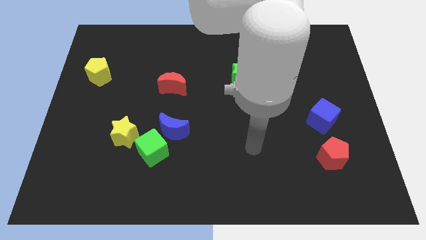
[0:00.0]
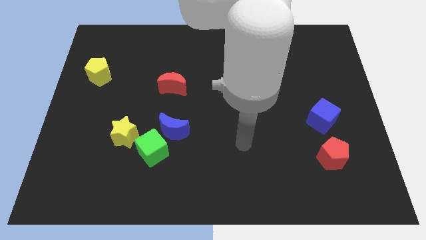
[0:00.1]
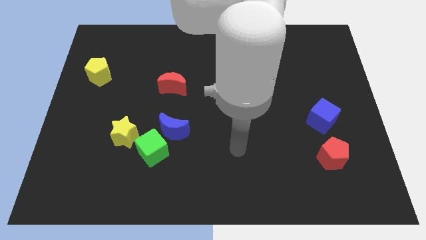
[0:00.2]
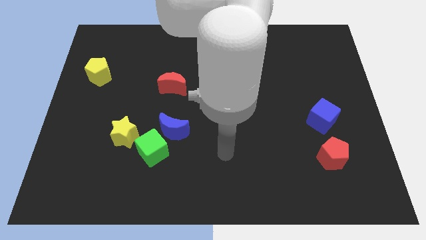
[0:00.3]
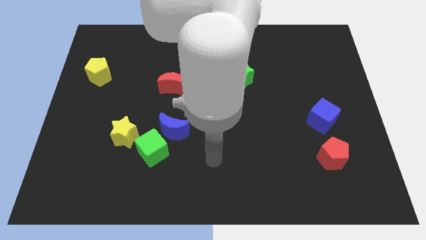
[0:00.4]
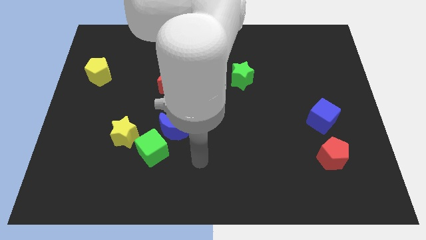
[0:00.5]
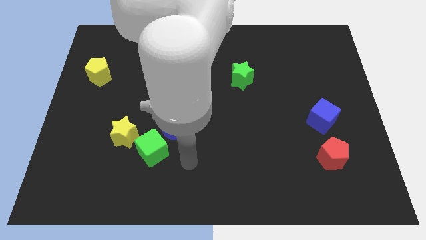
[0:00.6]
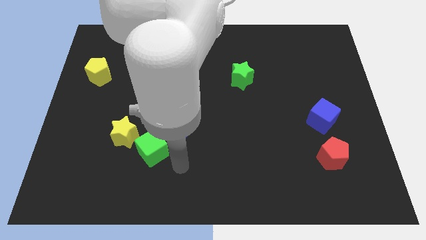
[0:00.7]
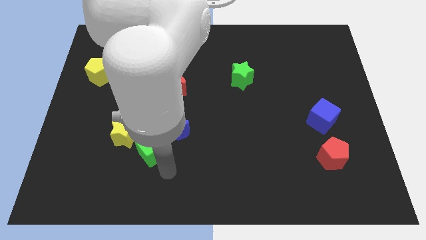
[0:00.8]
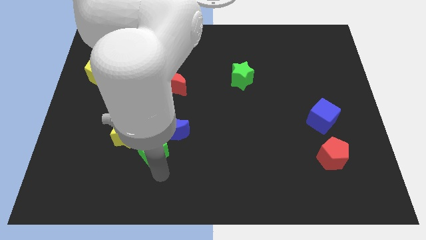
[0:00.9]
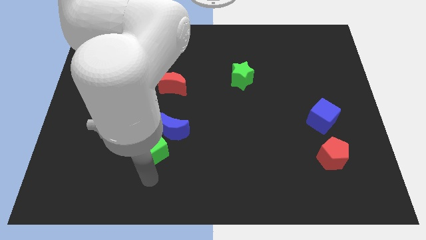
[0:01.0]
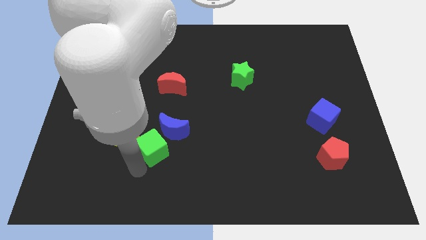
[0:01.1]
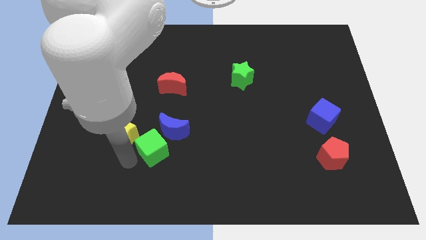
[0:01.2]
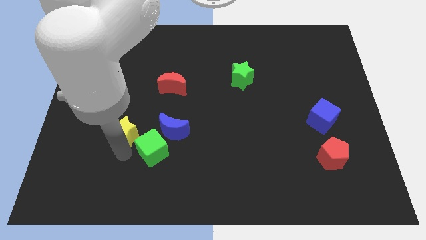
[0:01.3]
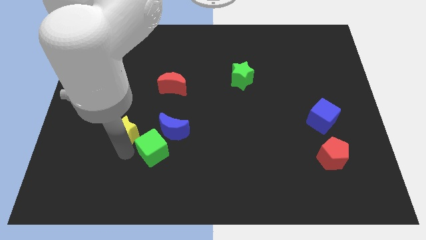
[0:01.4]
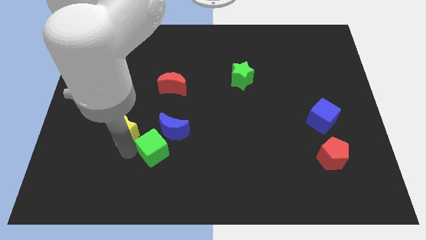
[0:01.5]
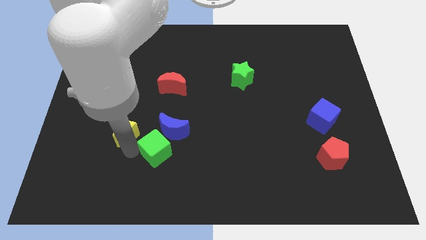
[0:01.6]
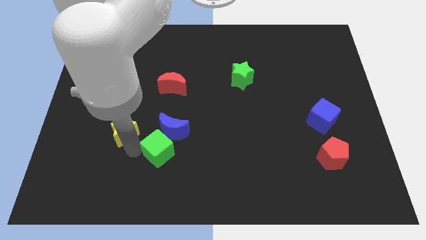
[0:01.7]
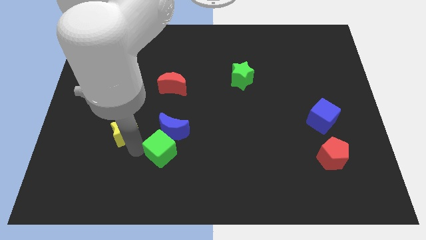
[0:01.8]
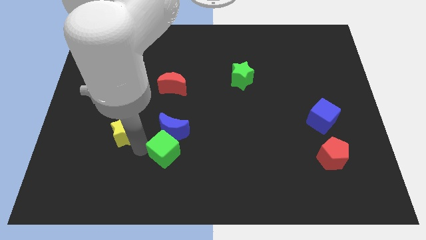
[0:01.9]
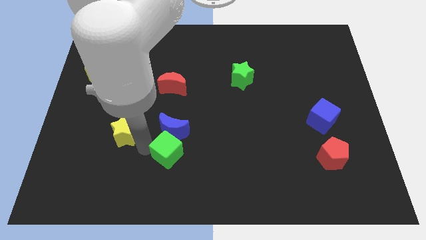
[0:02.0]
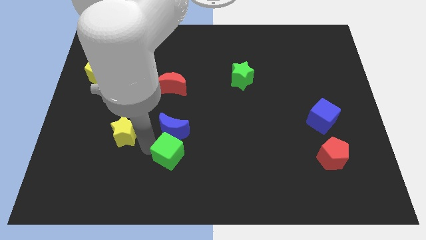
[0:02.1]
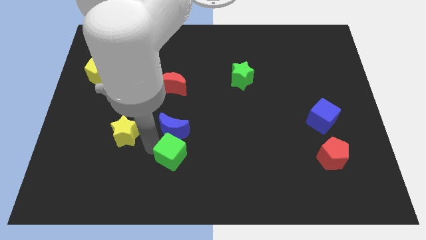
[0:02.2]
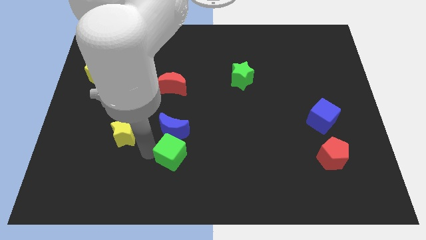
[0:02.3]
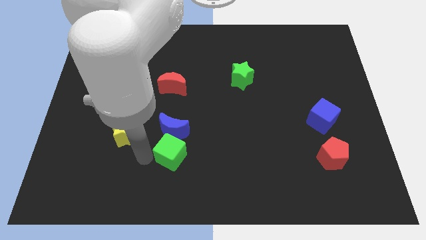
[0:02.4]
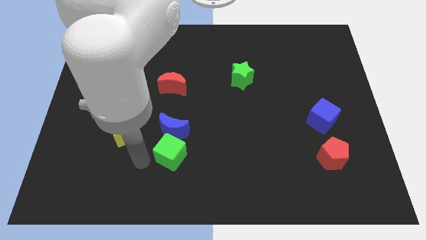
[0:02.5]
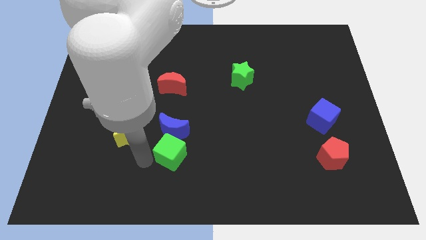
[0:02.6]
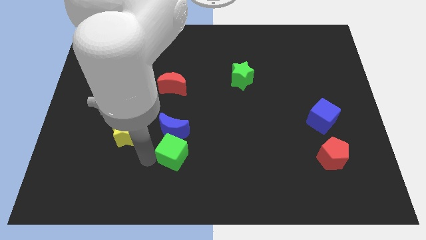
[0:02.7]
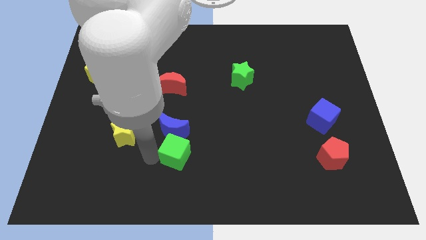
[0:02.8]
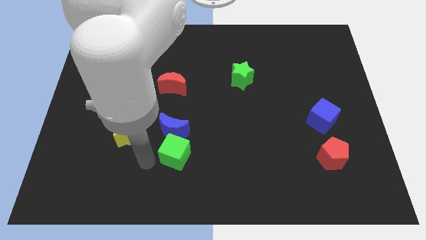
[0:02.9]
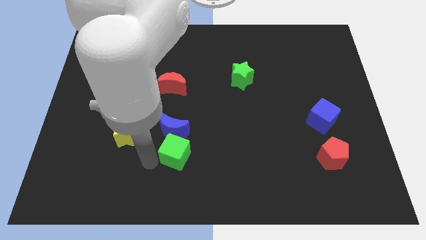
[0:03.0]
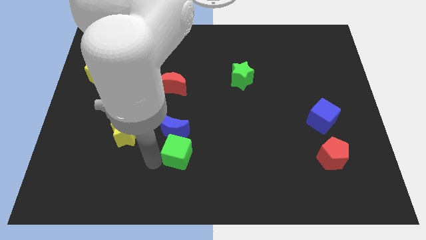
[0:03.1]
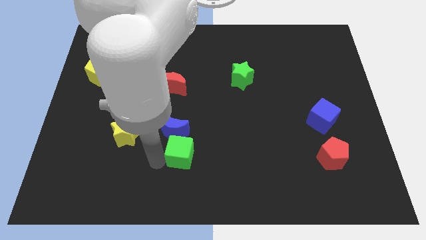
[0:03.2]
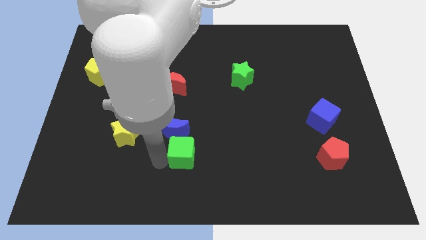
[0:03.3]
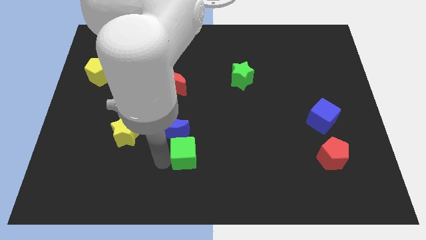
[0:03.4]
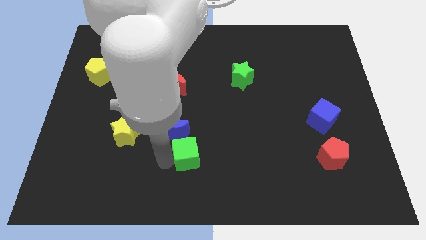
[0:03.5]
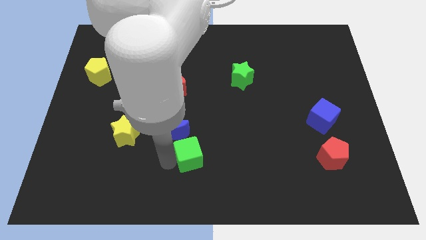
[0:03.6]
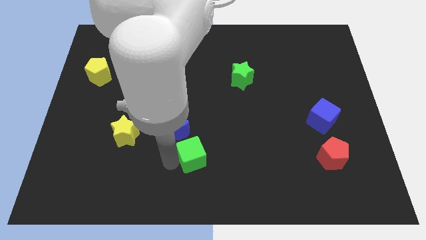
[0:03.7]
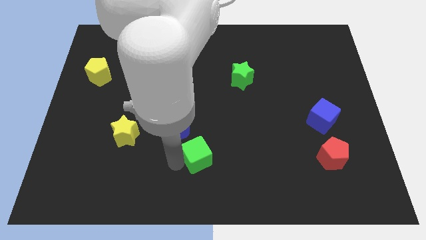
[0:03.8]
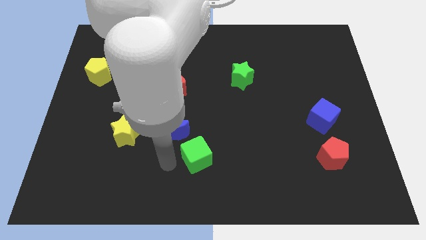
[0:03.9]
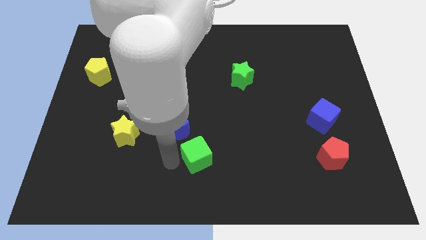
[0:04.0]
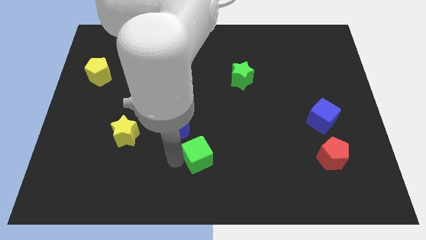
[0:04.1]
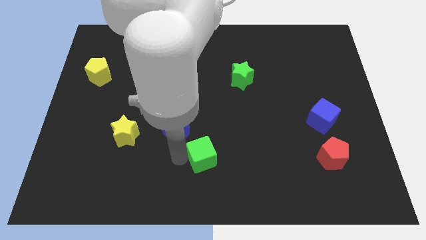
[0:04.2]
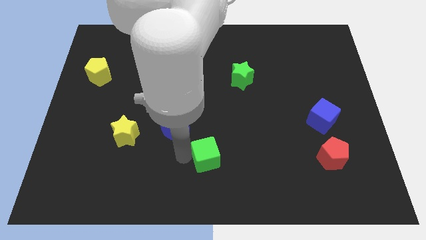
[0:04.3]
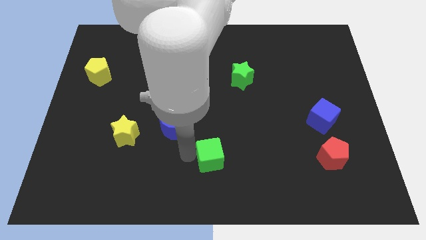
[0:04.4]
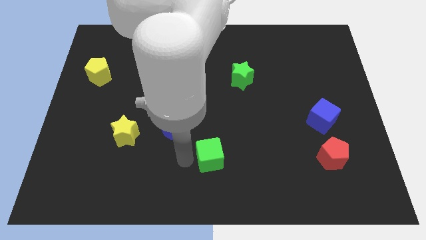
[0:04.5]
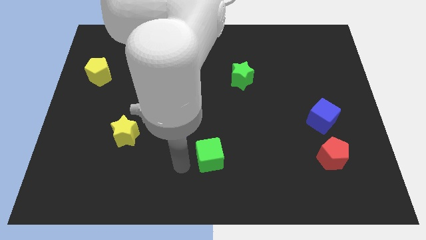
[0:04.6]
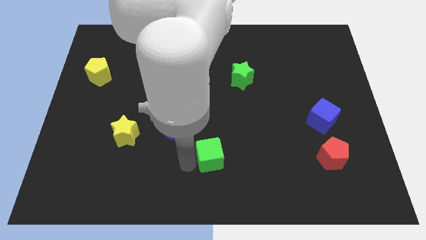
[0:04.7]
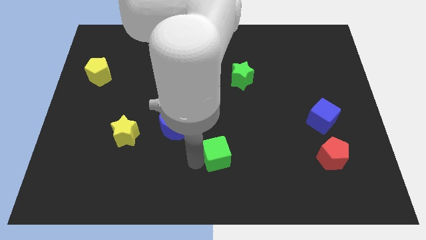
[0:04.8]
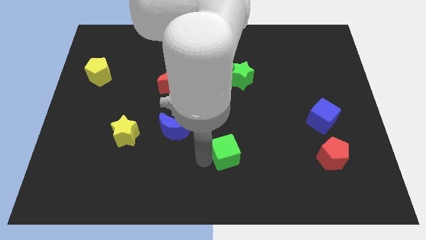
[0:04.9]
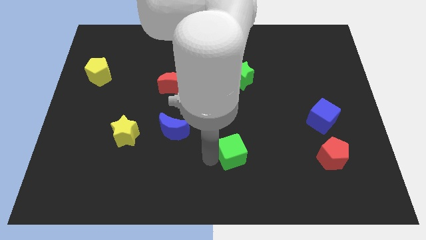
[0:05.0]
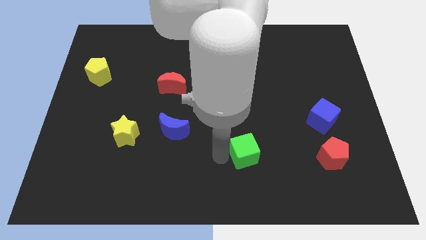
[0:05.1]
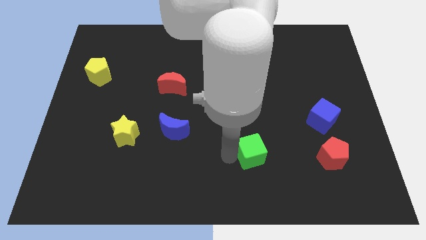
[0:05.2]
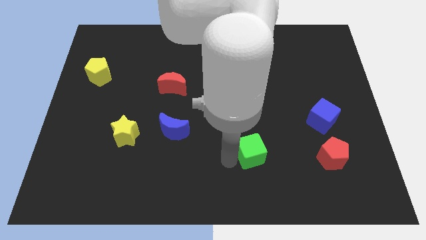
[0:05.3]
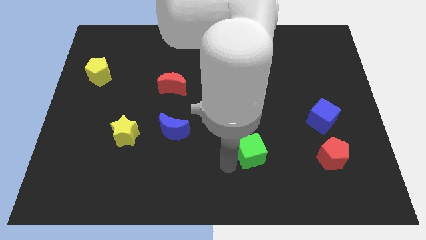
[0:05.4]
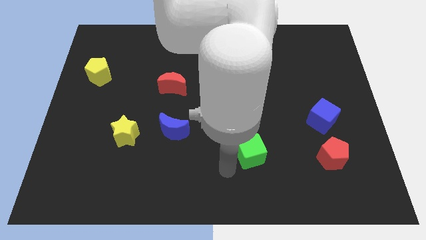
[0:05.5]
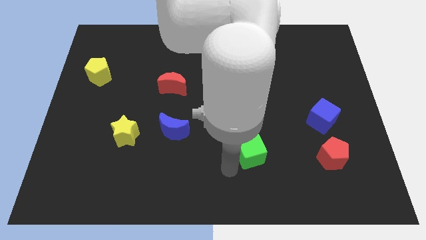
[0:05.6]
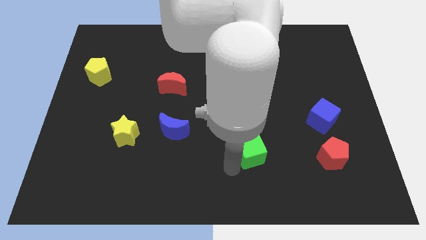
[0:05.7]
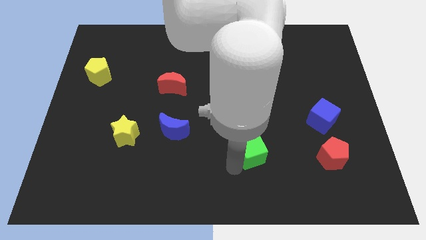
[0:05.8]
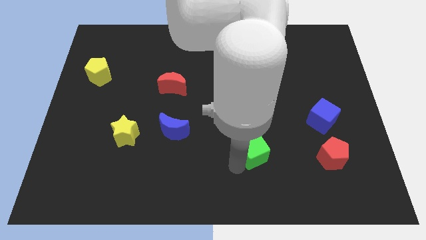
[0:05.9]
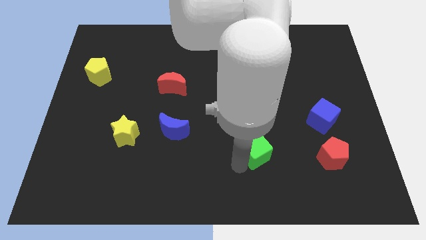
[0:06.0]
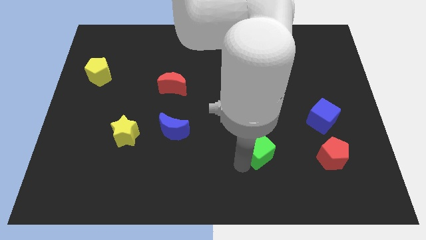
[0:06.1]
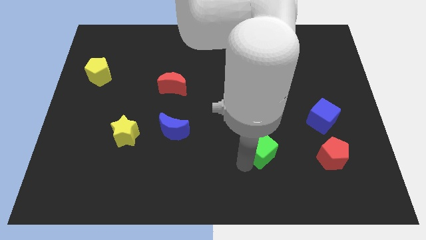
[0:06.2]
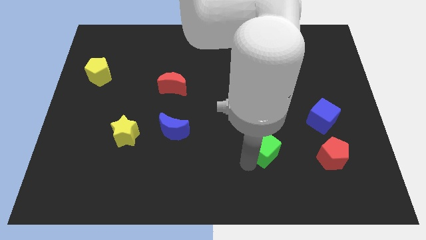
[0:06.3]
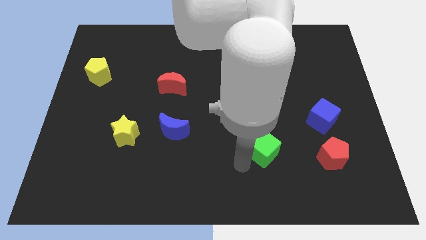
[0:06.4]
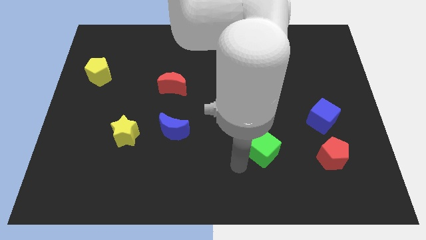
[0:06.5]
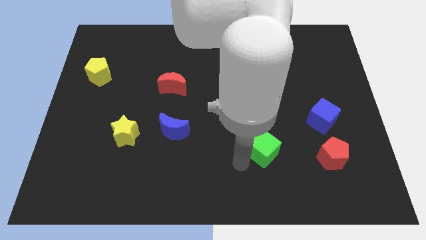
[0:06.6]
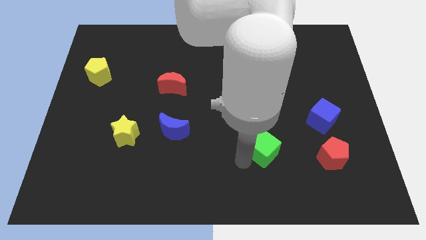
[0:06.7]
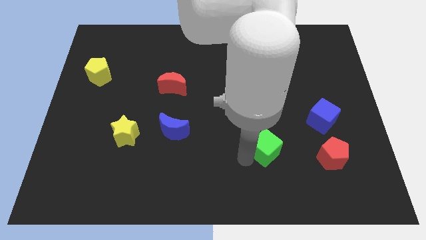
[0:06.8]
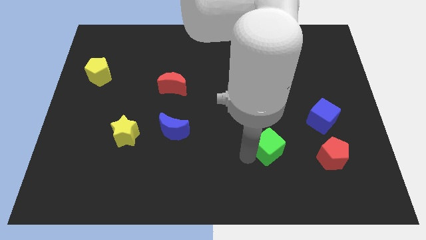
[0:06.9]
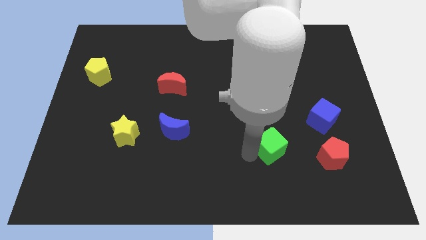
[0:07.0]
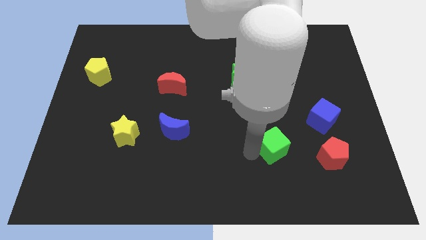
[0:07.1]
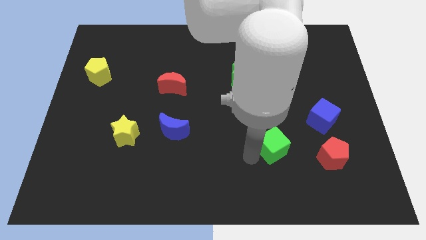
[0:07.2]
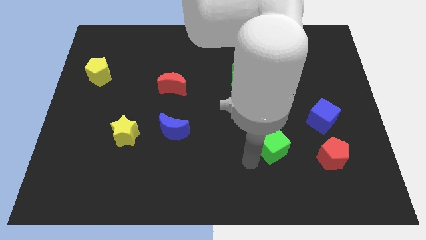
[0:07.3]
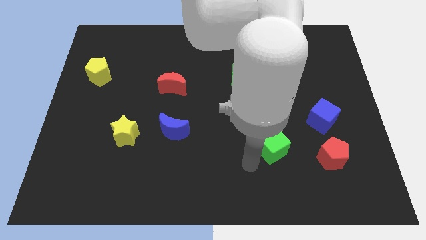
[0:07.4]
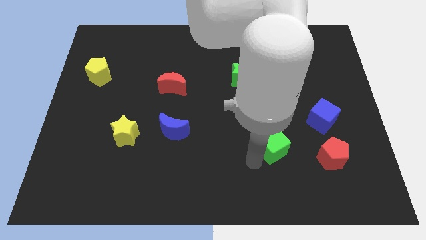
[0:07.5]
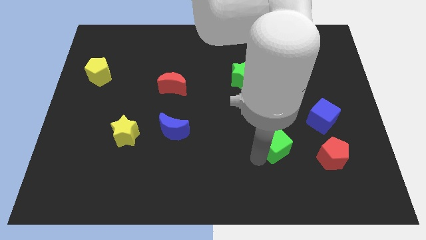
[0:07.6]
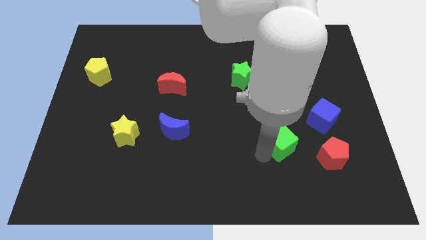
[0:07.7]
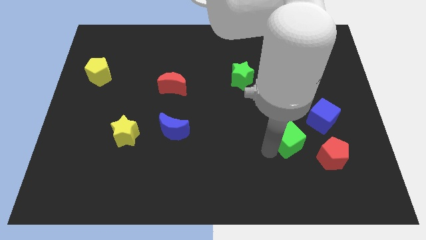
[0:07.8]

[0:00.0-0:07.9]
push the green cube to the top left side of the red pentagon
